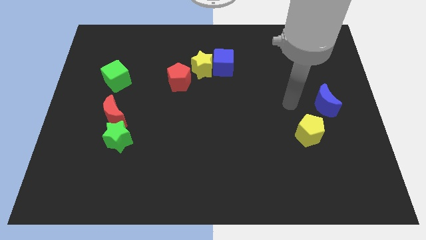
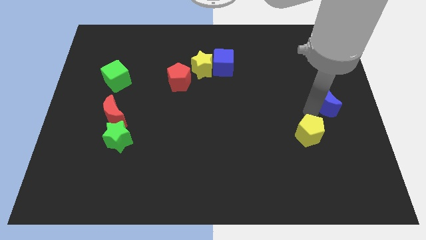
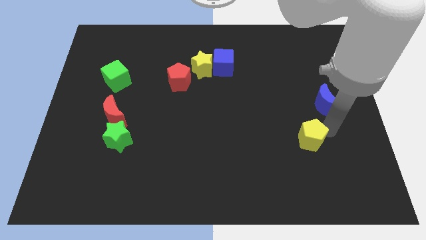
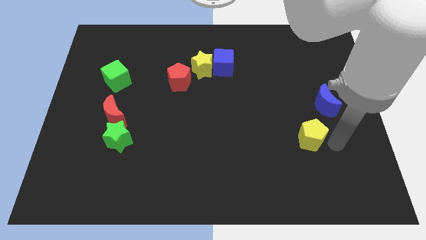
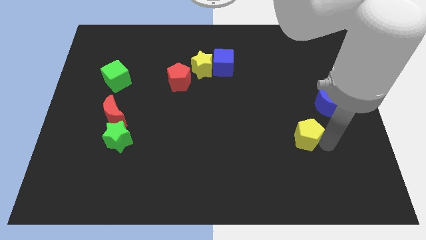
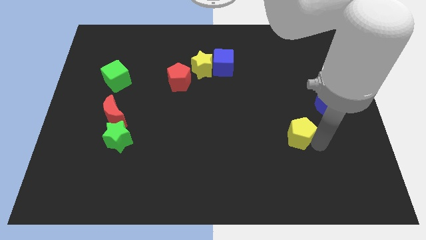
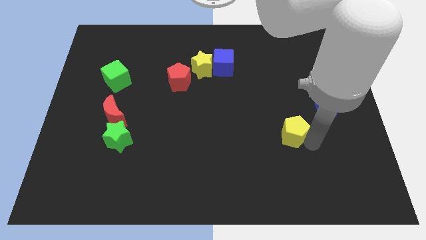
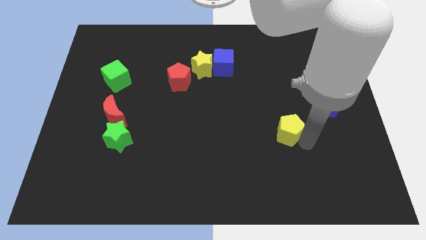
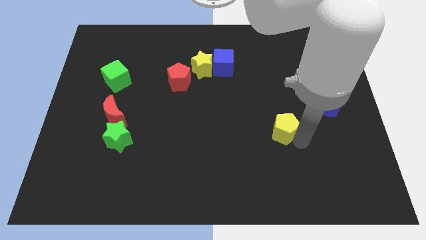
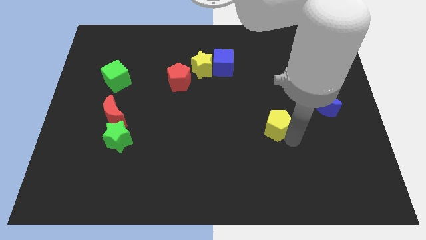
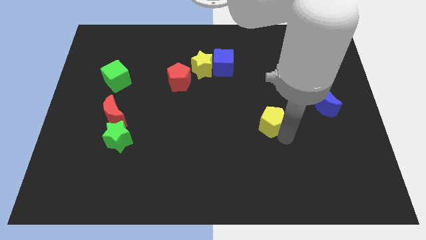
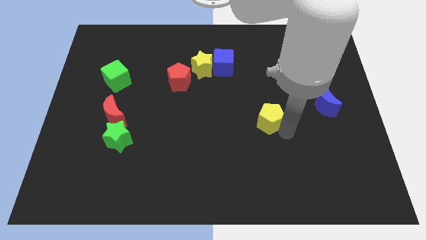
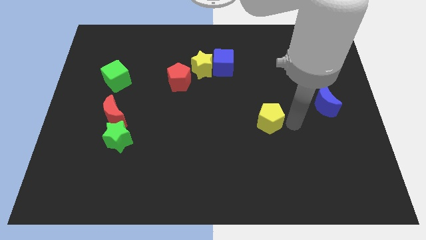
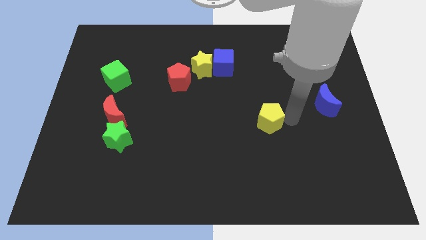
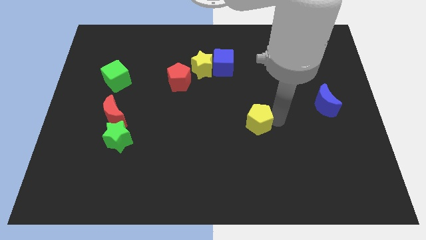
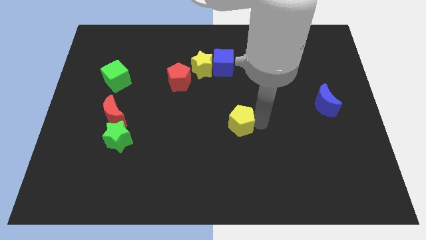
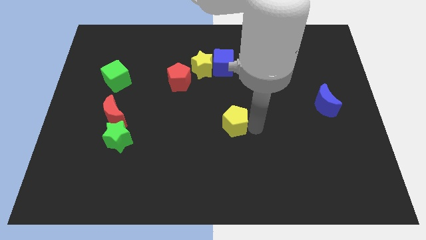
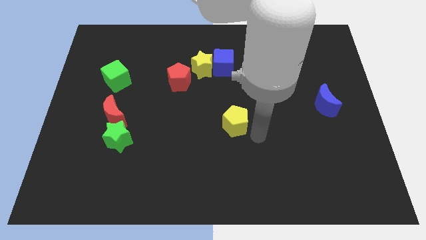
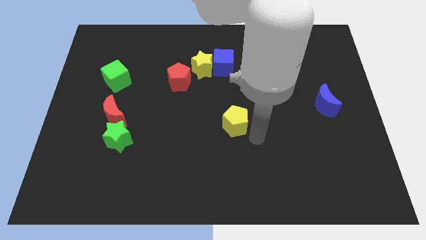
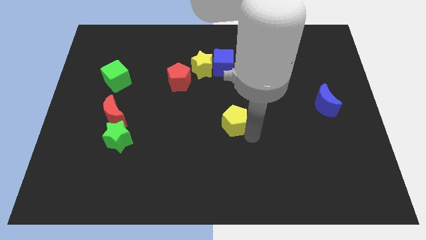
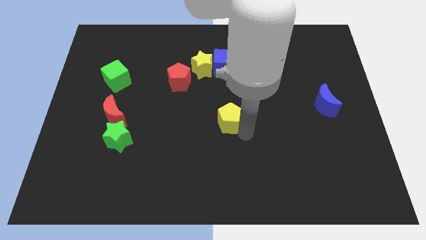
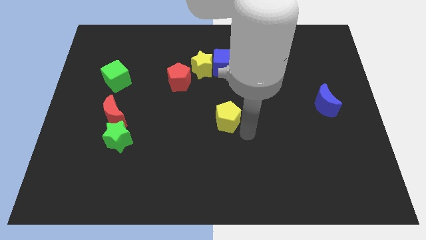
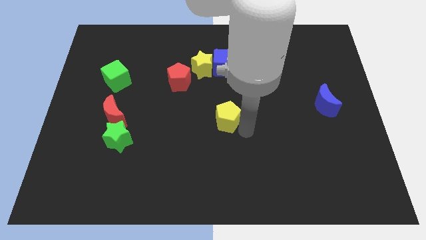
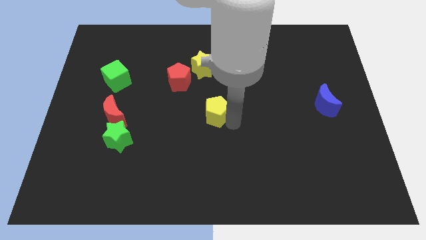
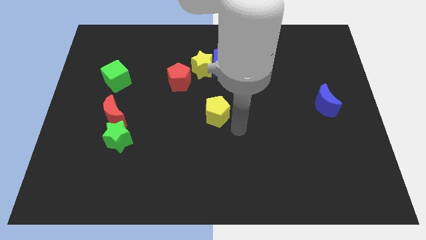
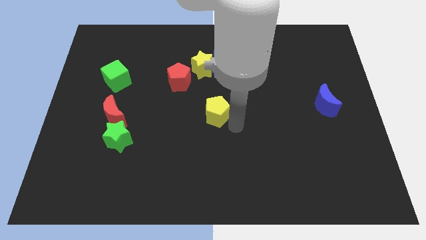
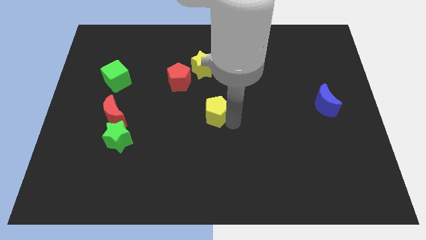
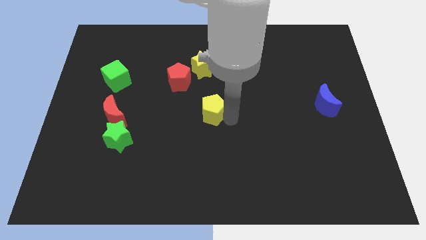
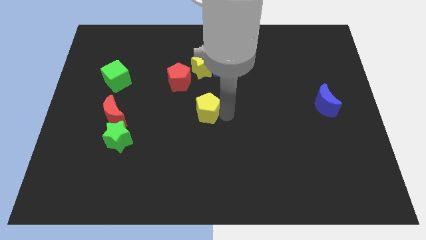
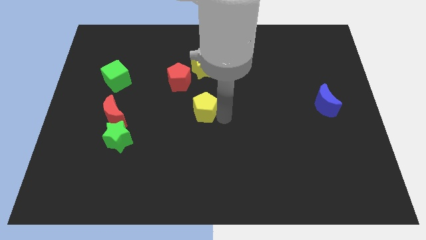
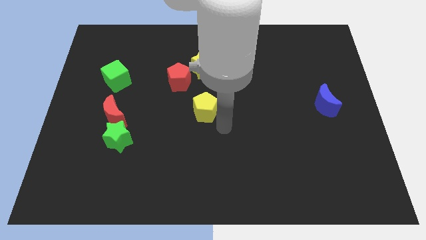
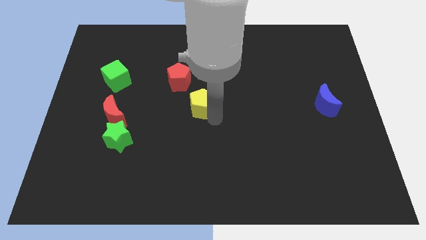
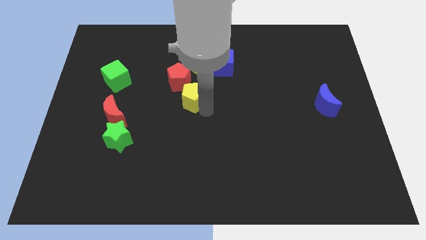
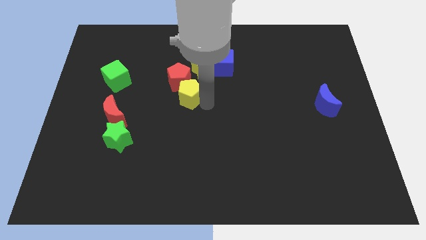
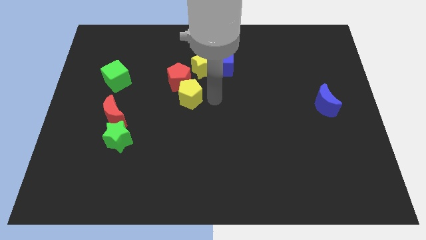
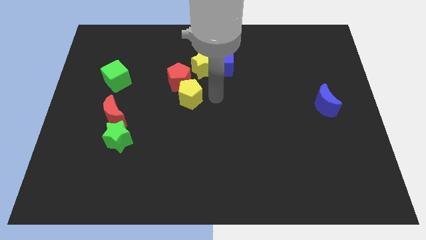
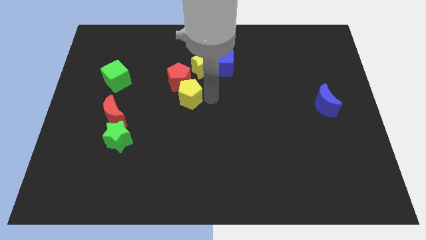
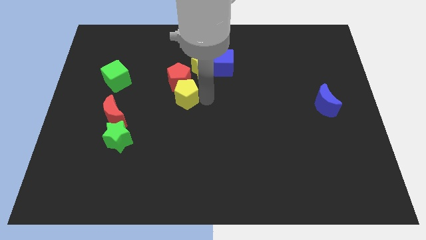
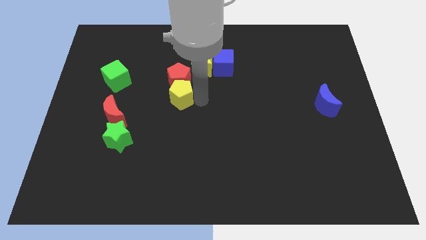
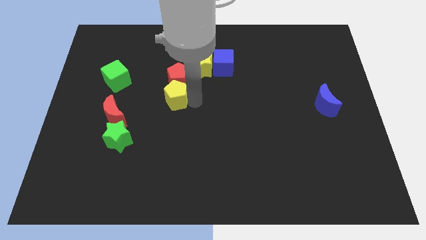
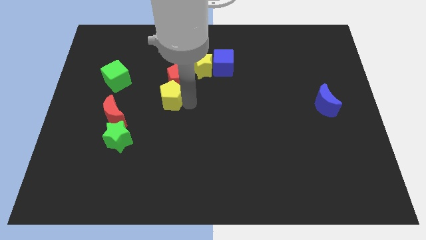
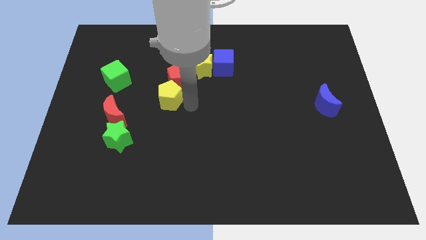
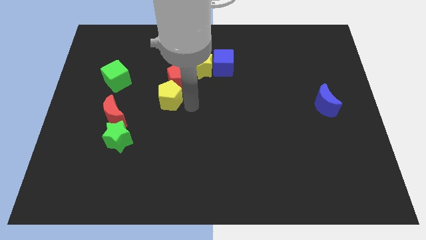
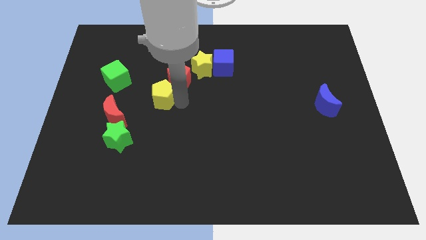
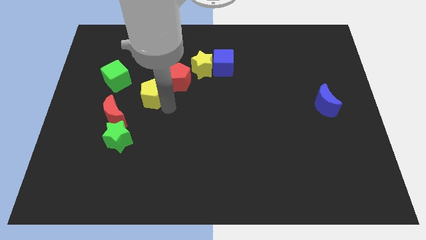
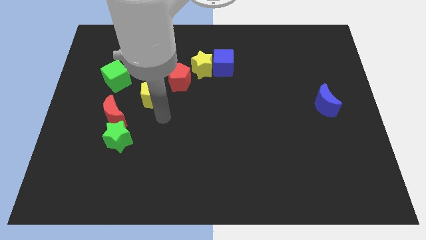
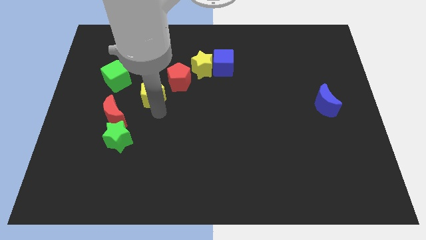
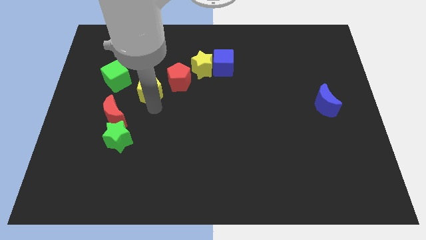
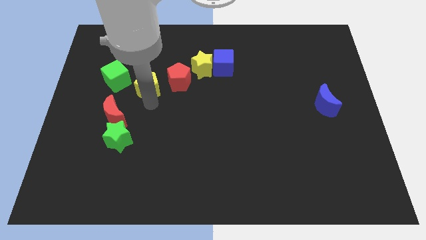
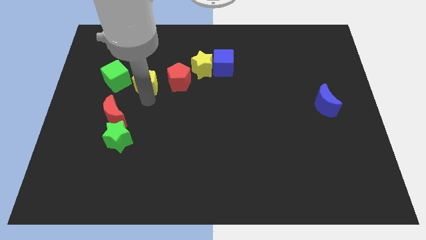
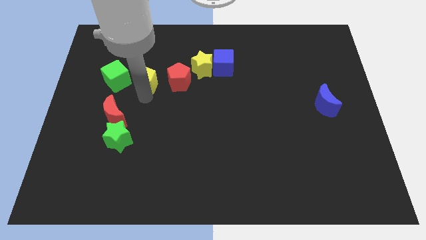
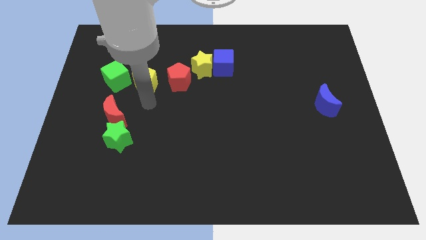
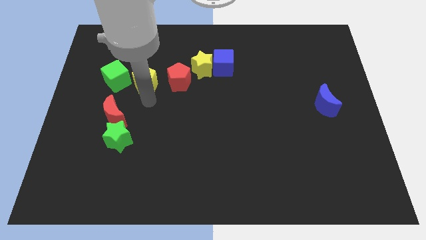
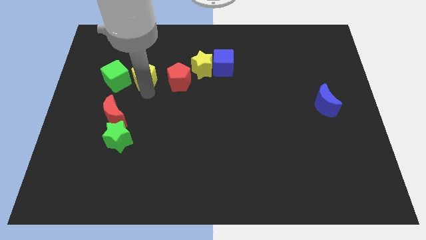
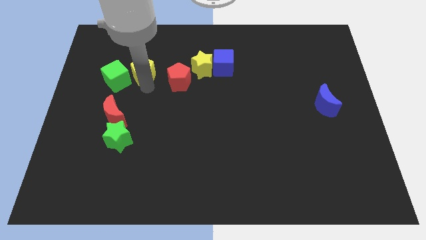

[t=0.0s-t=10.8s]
push the yellow pentagon to the top right of the green cube

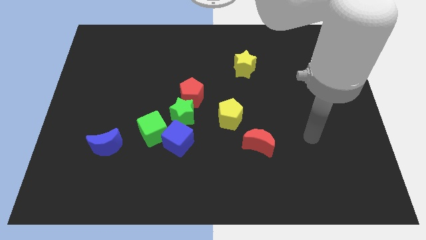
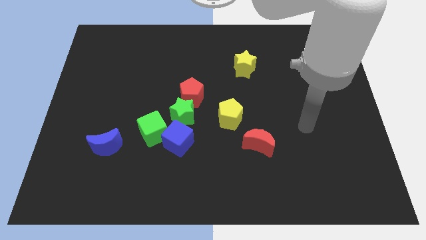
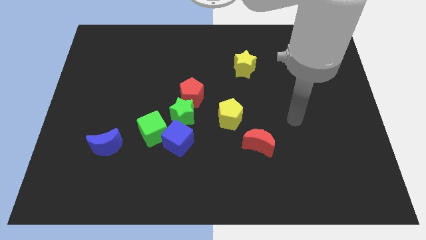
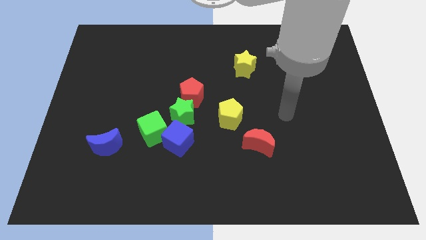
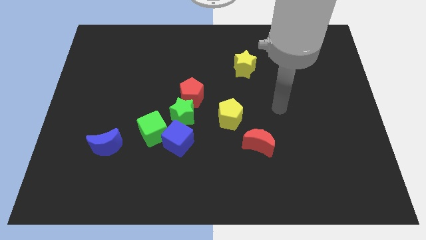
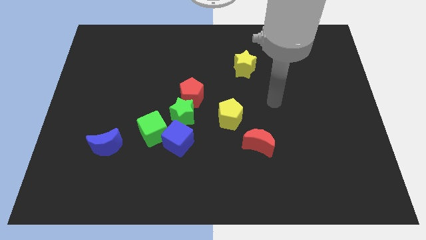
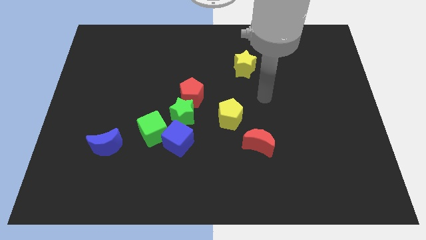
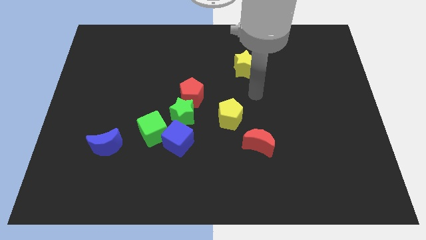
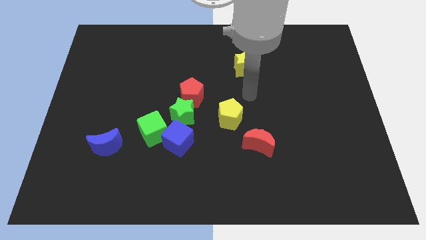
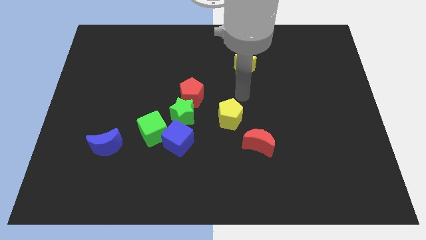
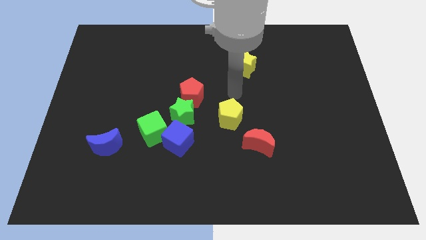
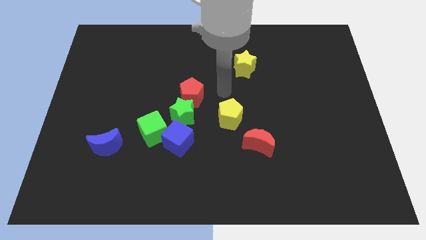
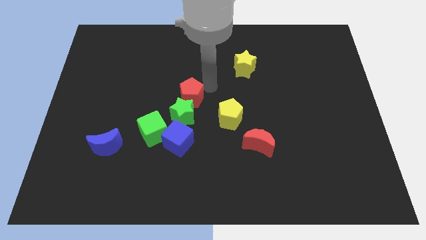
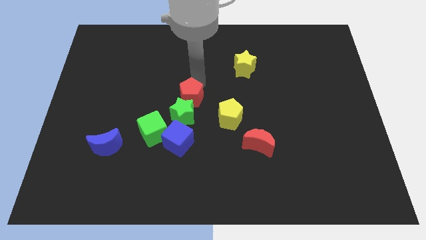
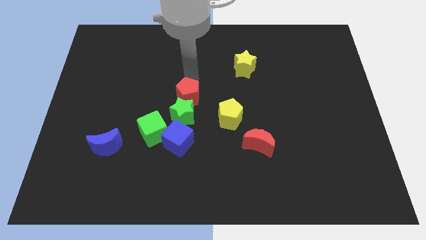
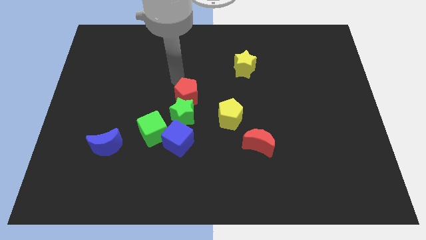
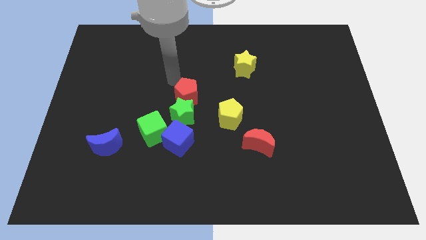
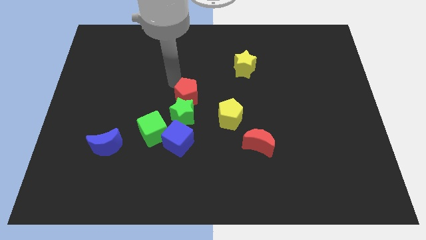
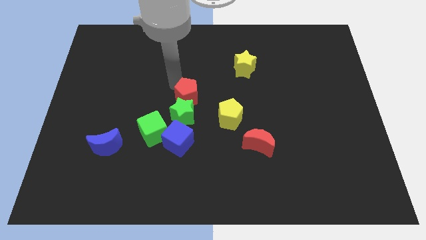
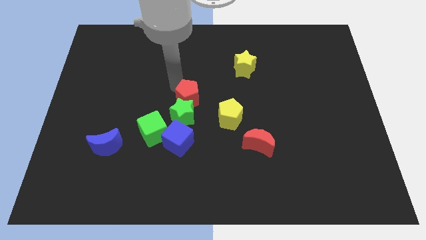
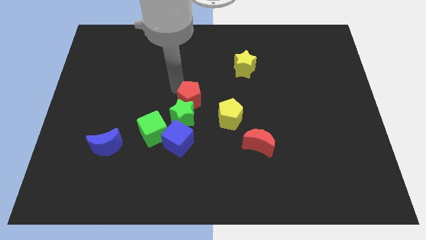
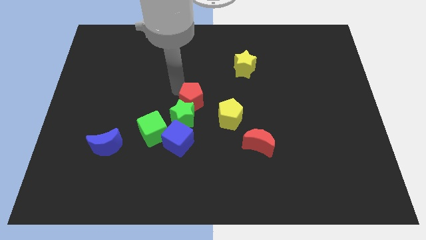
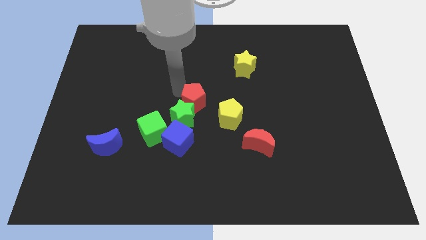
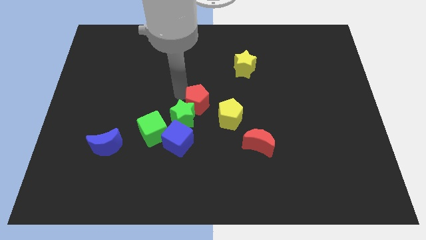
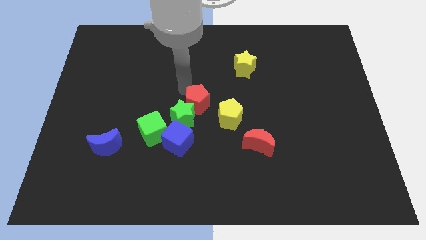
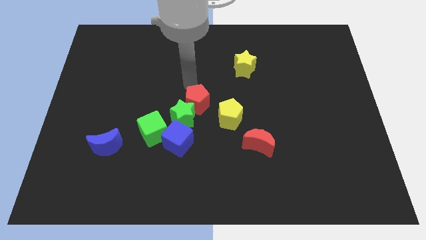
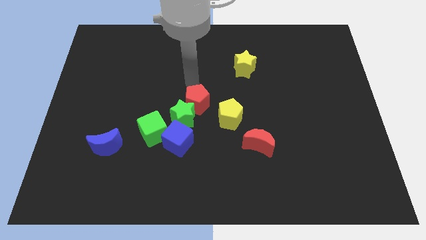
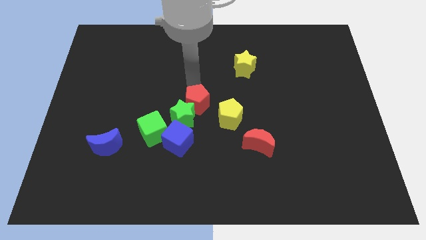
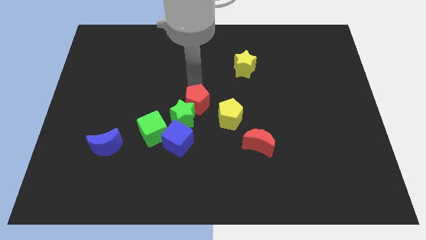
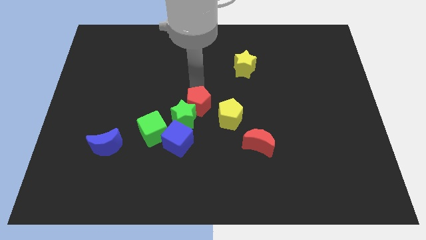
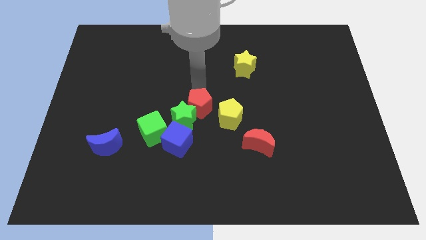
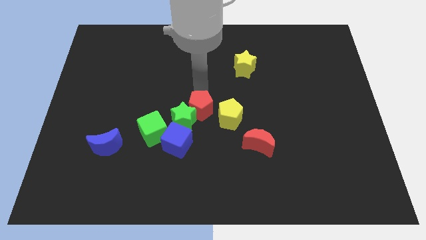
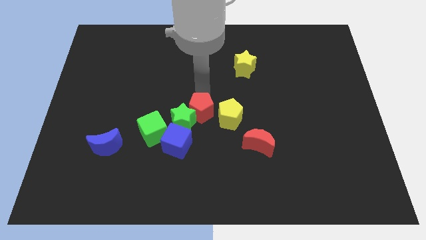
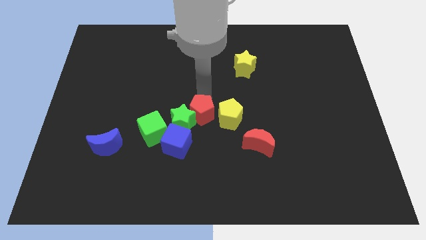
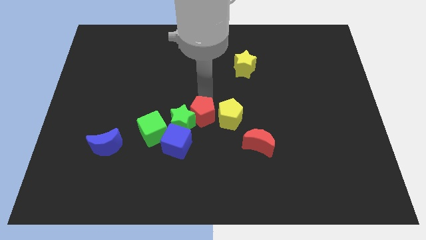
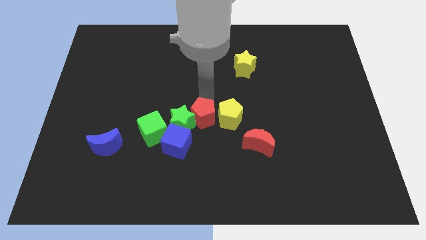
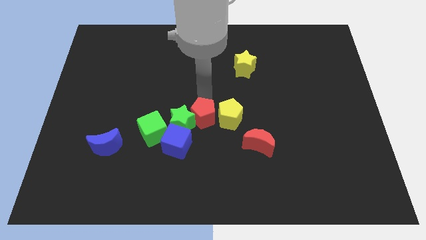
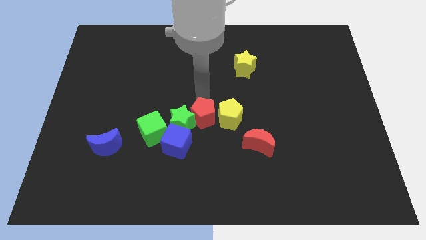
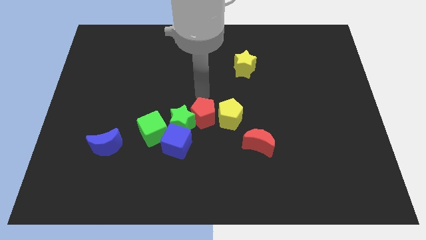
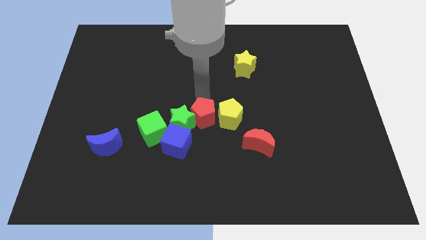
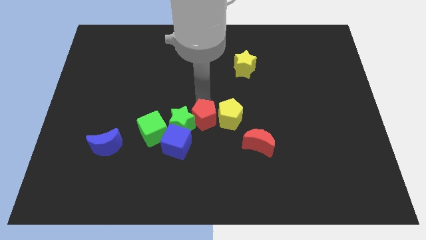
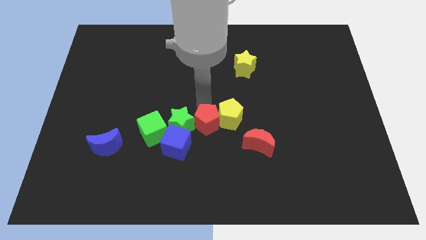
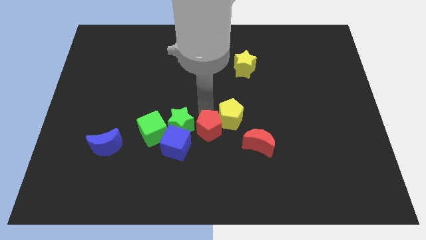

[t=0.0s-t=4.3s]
slide the red pentagon just left of the red moon
